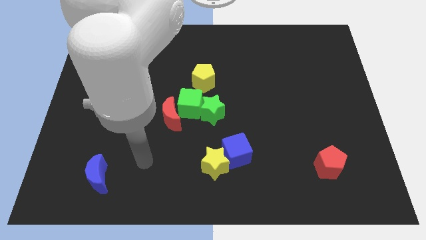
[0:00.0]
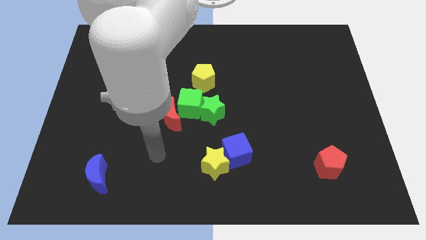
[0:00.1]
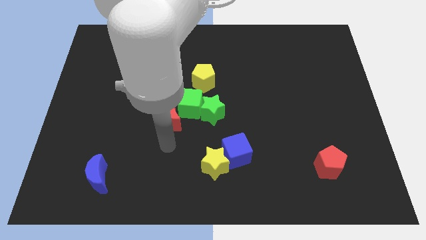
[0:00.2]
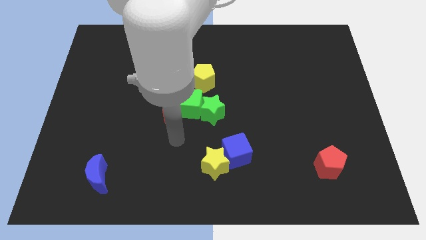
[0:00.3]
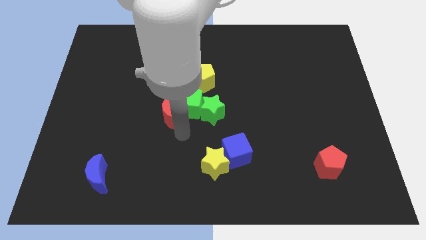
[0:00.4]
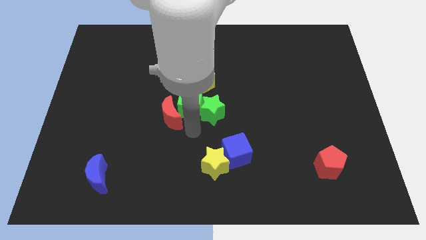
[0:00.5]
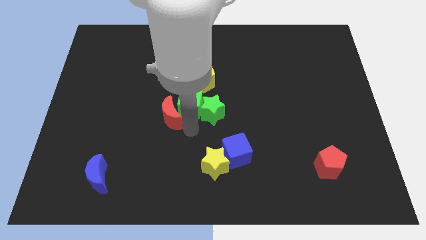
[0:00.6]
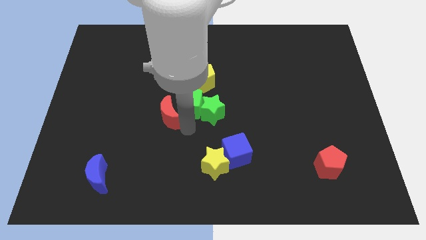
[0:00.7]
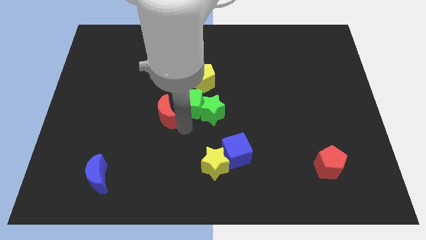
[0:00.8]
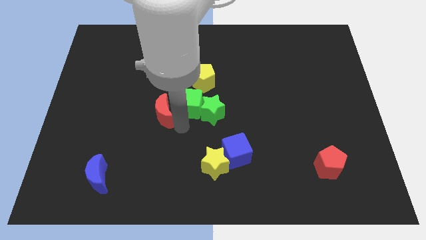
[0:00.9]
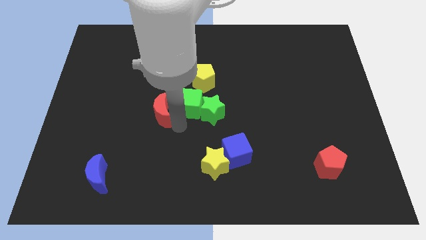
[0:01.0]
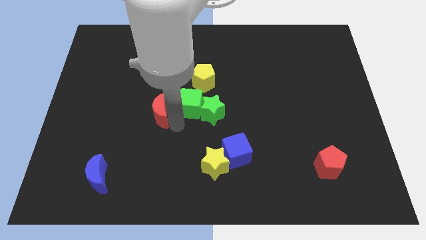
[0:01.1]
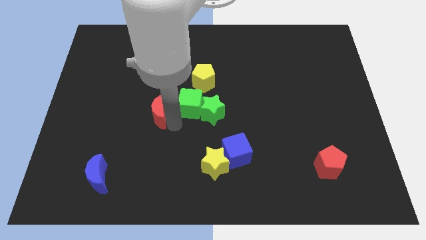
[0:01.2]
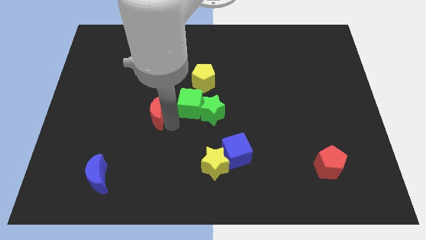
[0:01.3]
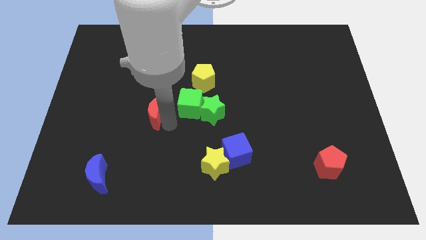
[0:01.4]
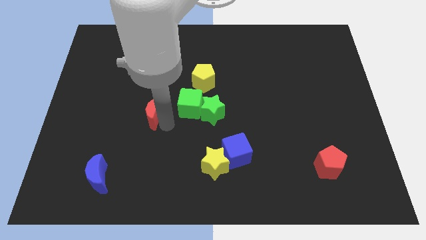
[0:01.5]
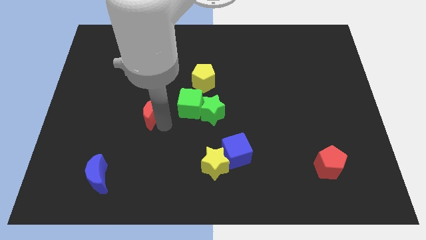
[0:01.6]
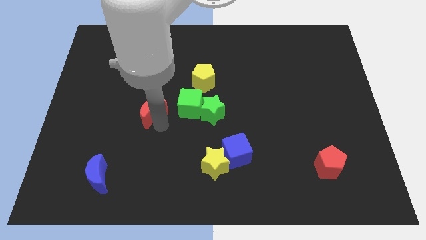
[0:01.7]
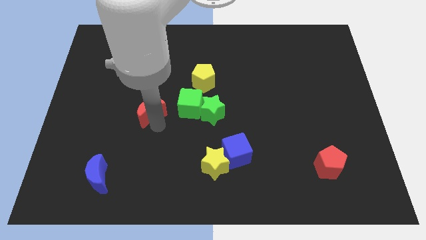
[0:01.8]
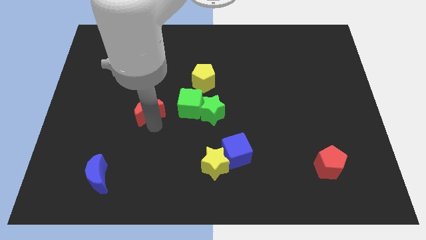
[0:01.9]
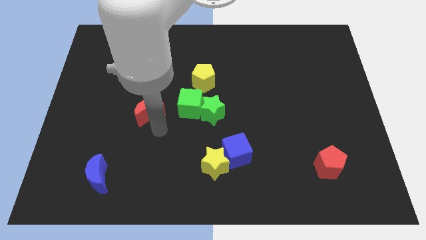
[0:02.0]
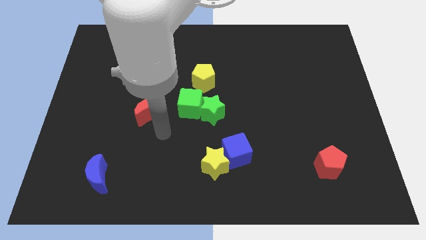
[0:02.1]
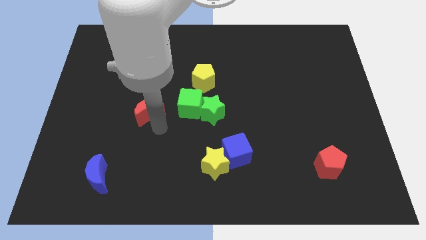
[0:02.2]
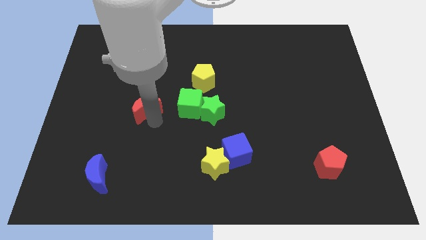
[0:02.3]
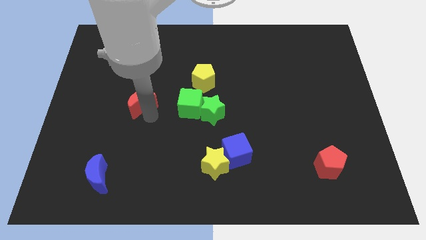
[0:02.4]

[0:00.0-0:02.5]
push the red moon diagonally up and left a little

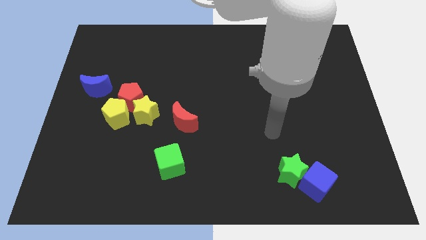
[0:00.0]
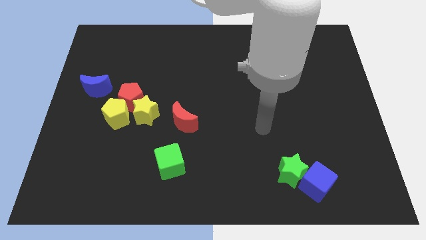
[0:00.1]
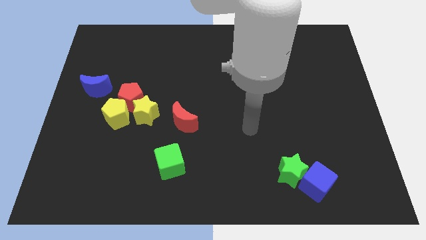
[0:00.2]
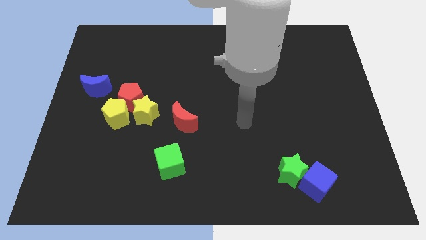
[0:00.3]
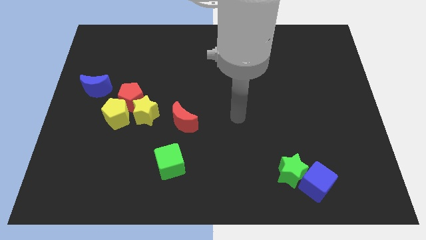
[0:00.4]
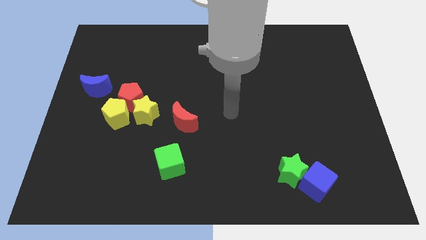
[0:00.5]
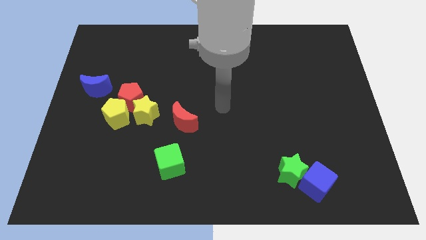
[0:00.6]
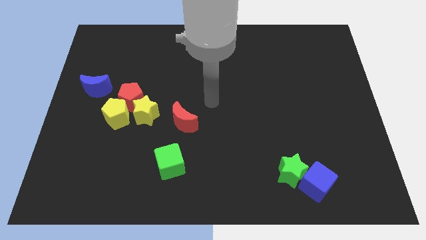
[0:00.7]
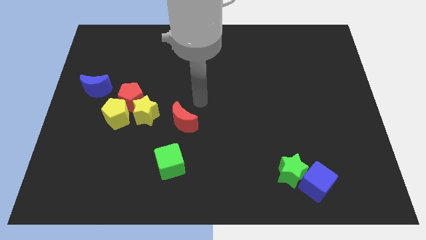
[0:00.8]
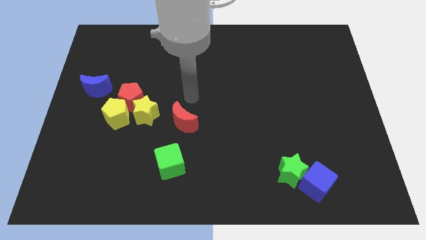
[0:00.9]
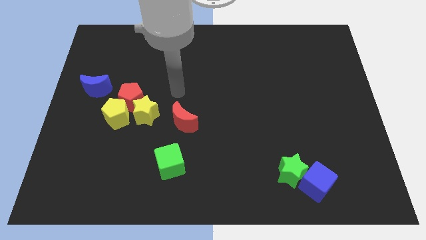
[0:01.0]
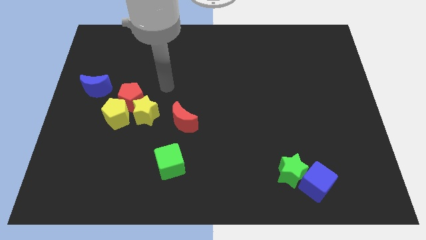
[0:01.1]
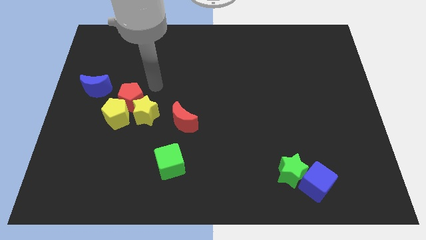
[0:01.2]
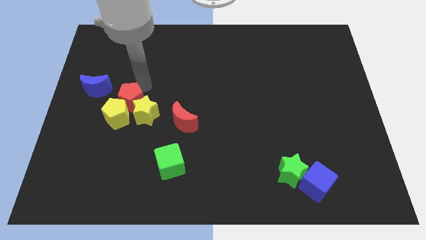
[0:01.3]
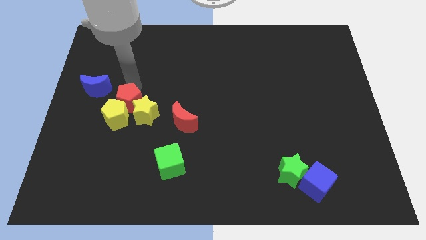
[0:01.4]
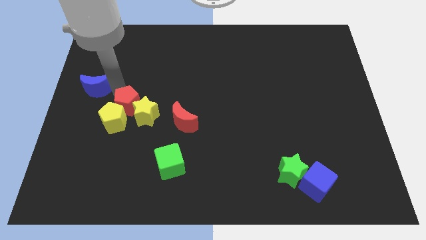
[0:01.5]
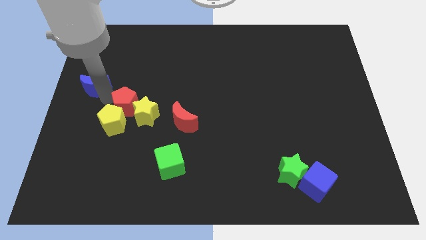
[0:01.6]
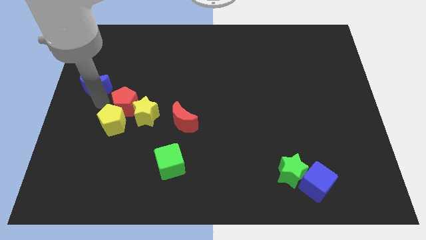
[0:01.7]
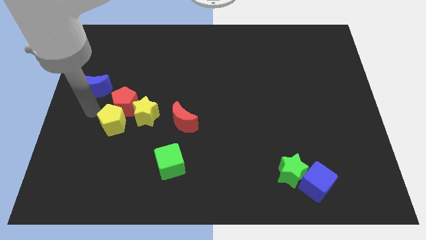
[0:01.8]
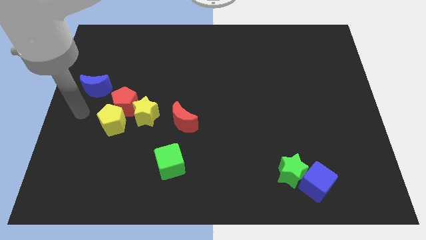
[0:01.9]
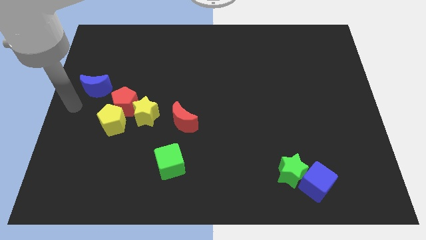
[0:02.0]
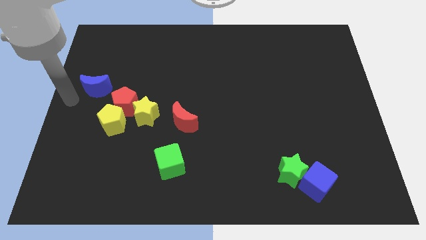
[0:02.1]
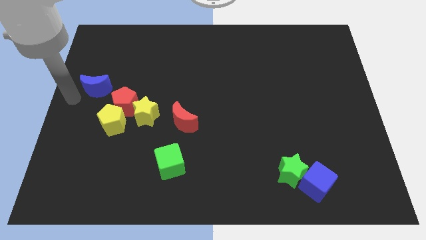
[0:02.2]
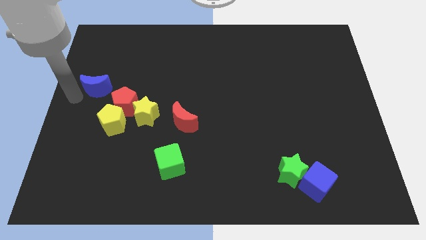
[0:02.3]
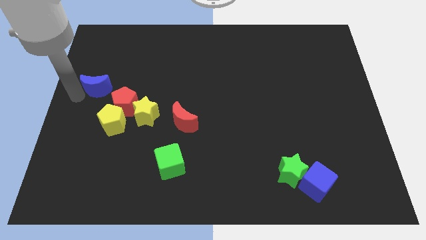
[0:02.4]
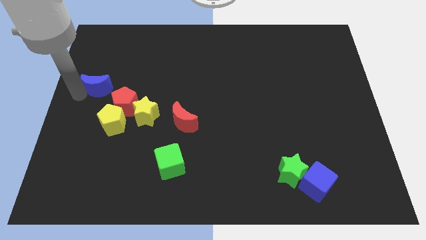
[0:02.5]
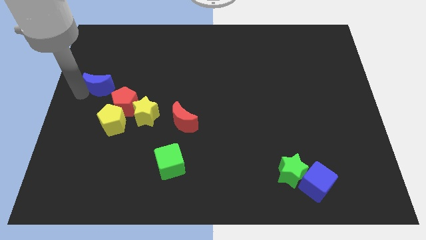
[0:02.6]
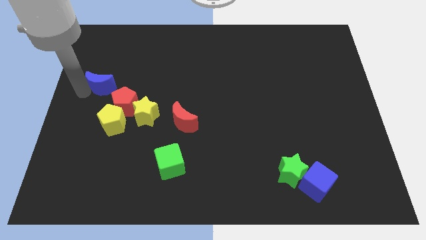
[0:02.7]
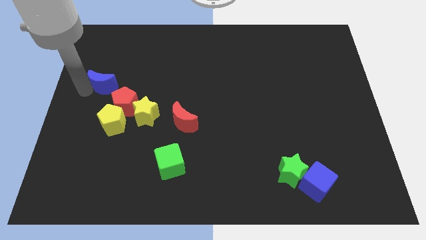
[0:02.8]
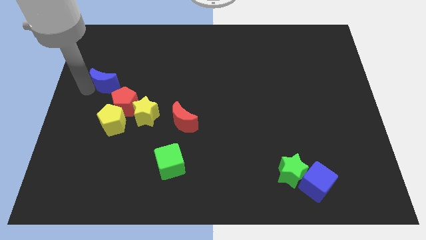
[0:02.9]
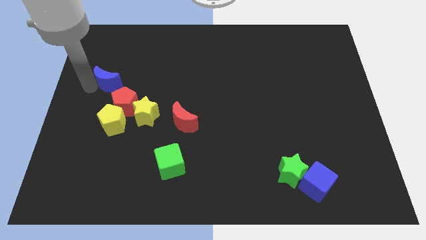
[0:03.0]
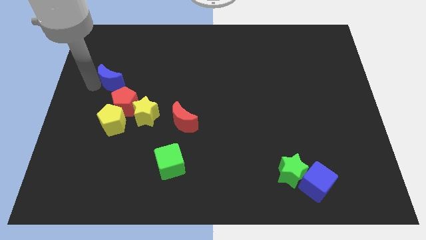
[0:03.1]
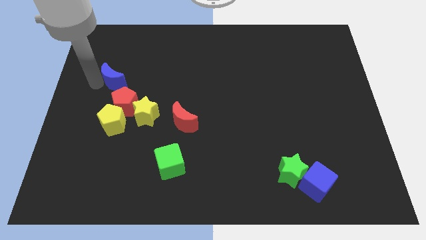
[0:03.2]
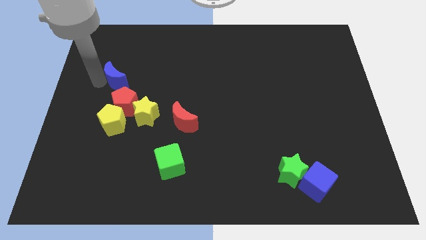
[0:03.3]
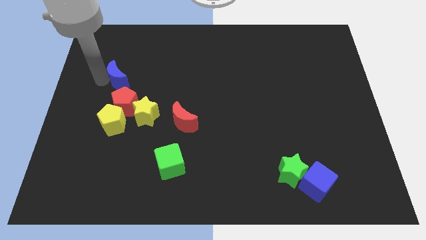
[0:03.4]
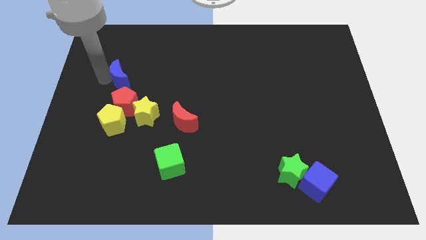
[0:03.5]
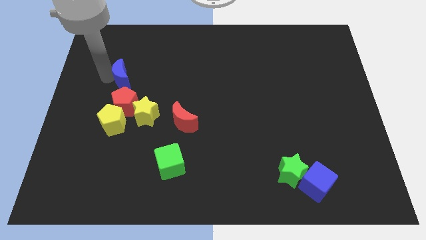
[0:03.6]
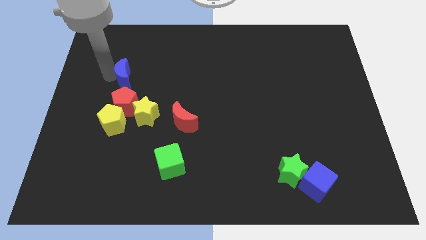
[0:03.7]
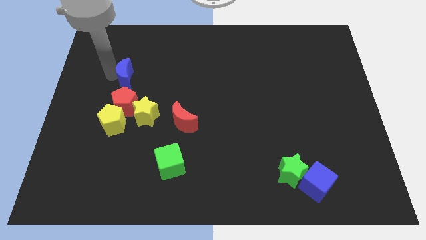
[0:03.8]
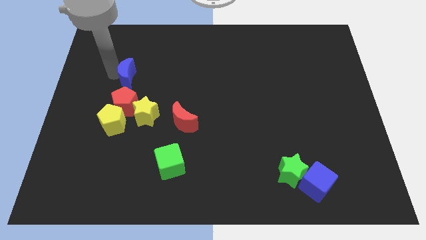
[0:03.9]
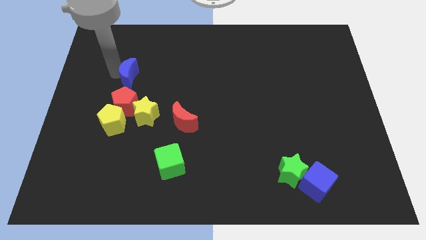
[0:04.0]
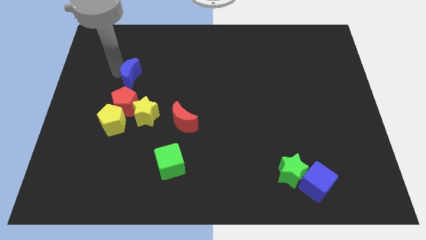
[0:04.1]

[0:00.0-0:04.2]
move the blue moon slightly to the right

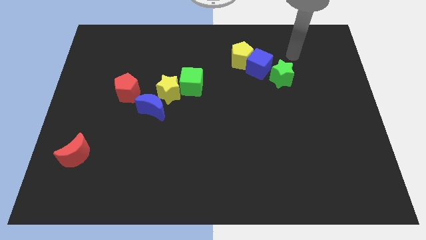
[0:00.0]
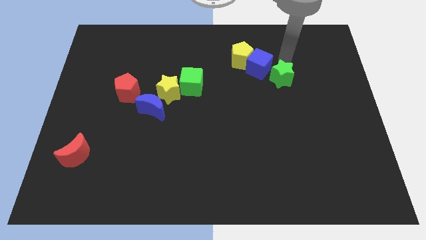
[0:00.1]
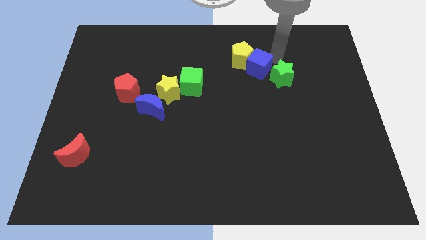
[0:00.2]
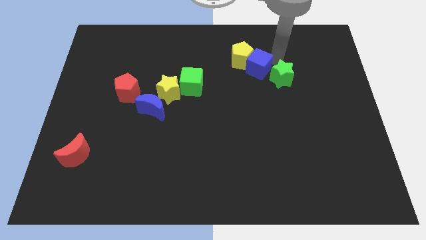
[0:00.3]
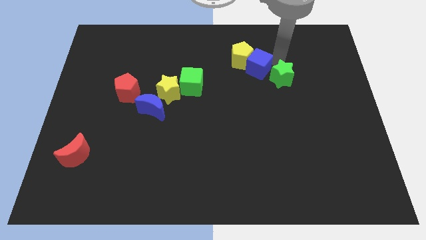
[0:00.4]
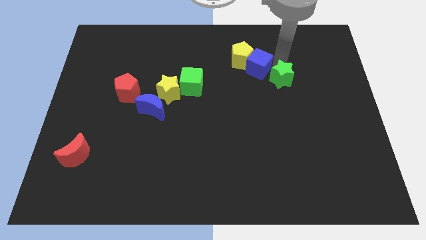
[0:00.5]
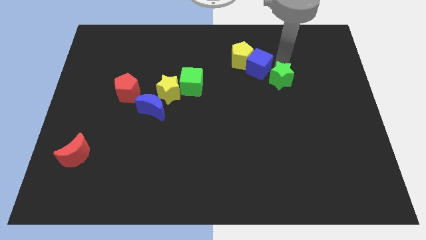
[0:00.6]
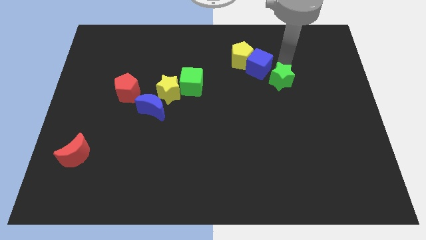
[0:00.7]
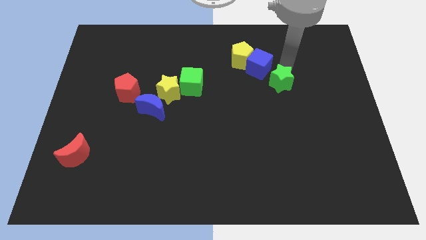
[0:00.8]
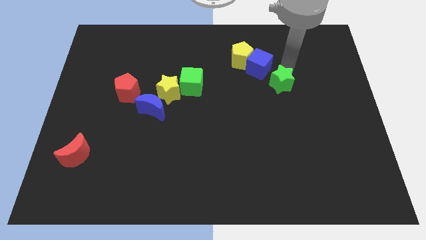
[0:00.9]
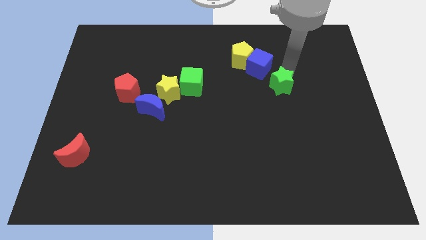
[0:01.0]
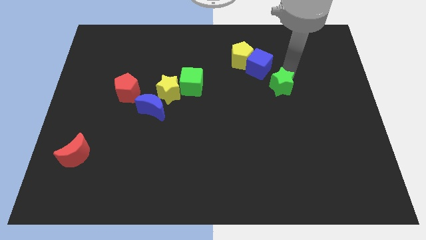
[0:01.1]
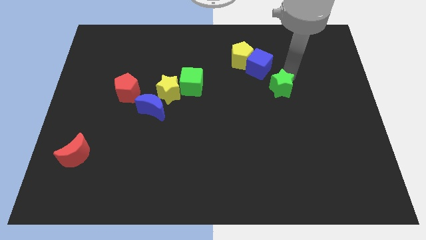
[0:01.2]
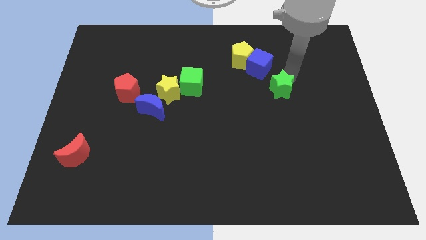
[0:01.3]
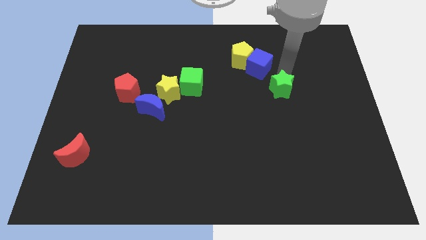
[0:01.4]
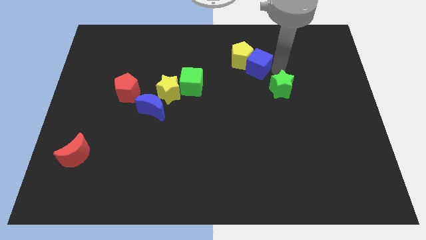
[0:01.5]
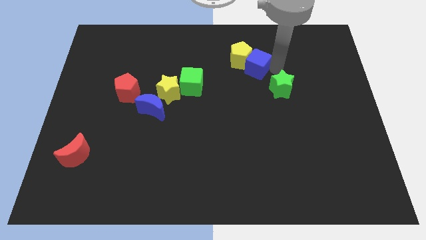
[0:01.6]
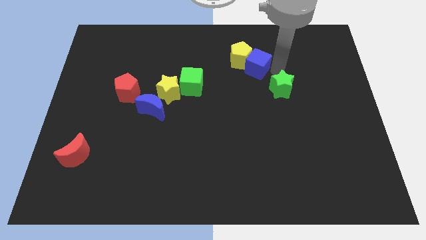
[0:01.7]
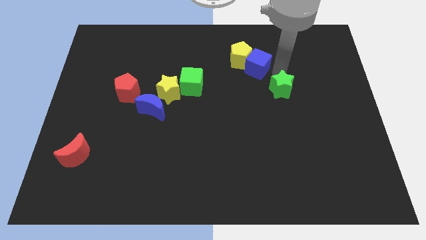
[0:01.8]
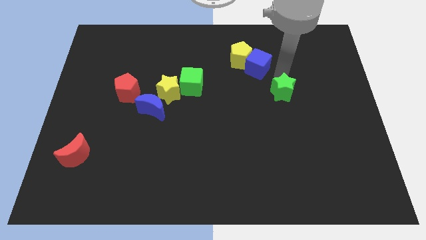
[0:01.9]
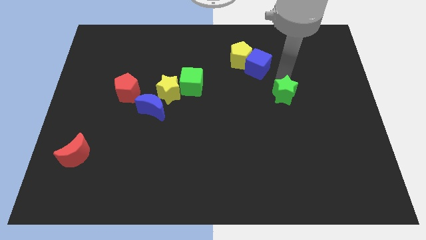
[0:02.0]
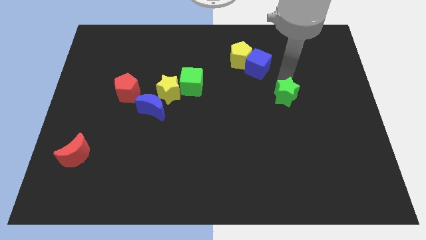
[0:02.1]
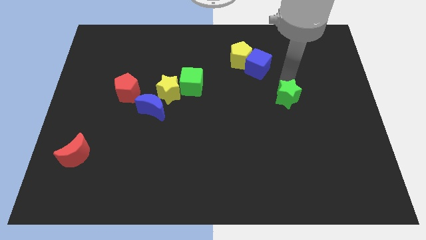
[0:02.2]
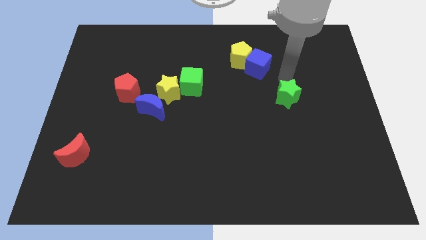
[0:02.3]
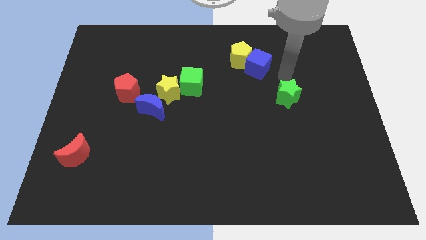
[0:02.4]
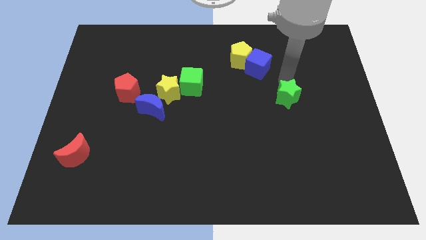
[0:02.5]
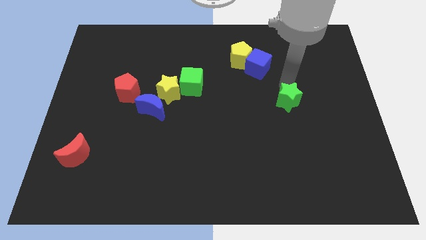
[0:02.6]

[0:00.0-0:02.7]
slide the green star downwards a little bit
